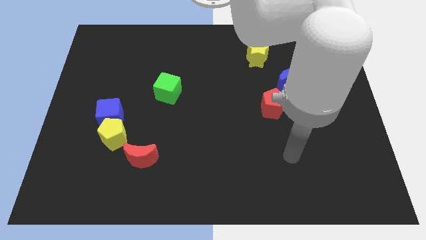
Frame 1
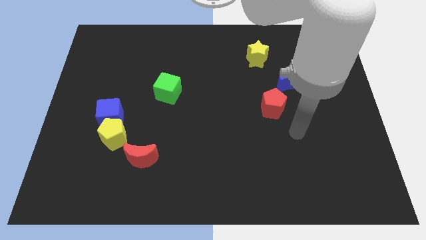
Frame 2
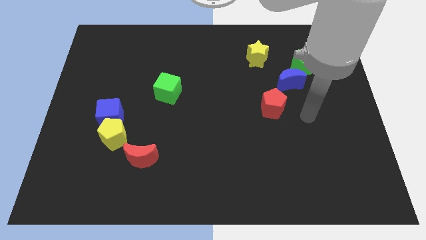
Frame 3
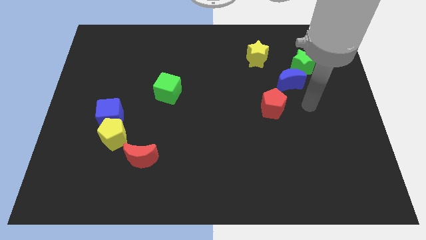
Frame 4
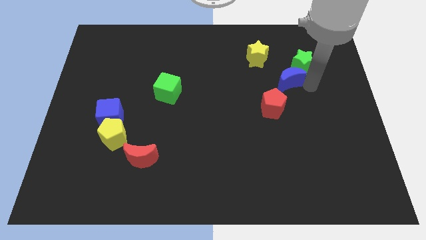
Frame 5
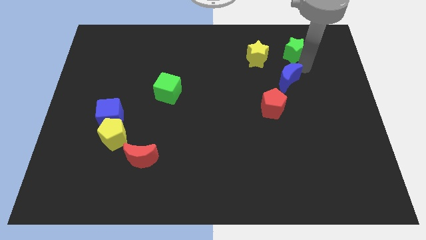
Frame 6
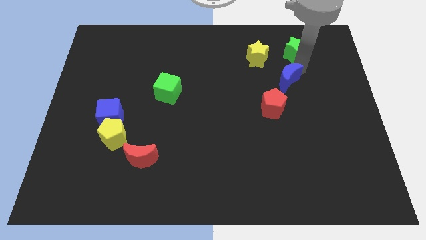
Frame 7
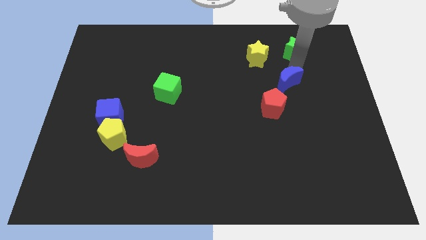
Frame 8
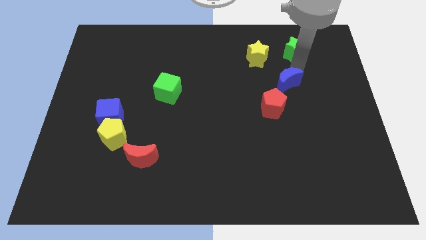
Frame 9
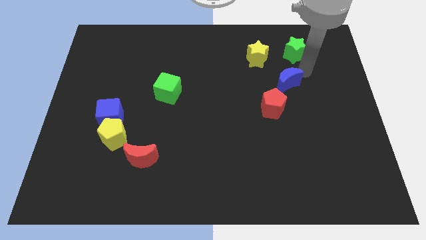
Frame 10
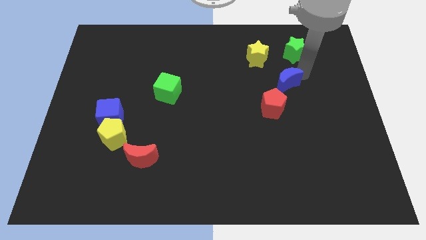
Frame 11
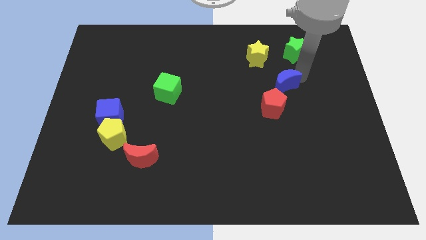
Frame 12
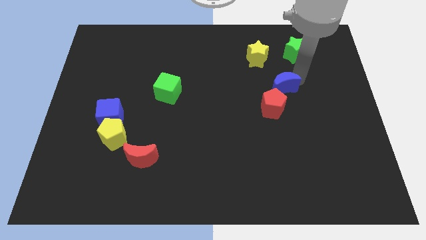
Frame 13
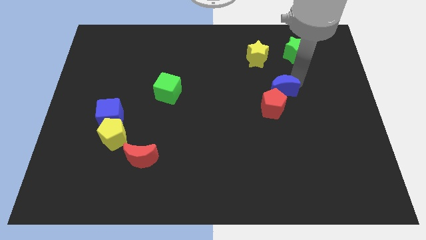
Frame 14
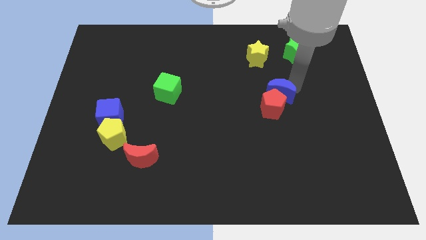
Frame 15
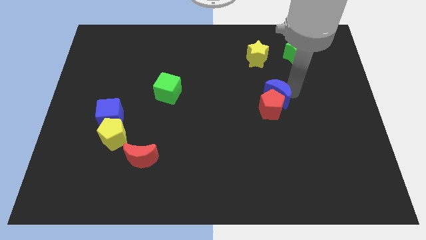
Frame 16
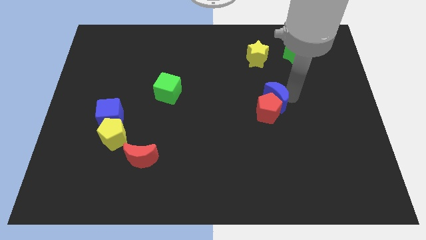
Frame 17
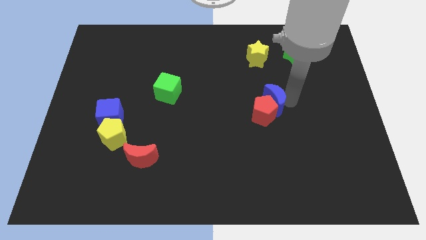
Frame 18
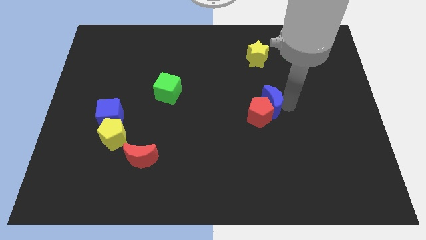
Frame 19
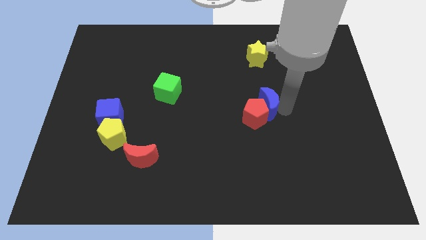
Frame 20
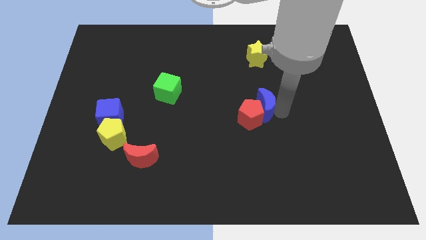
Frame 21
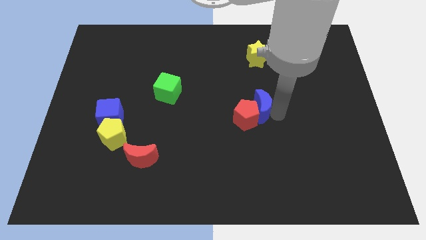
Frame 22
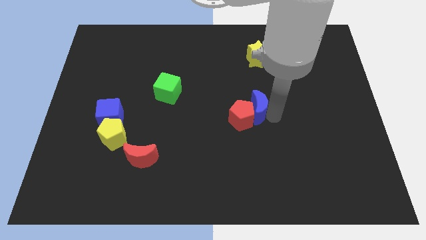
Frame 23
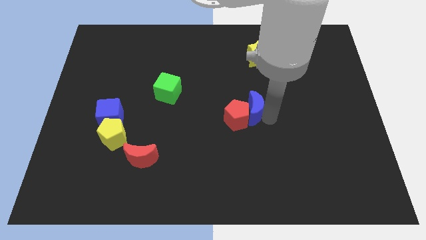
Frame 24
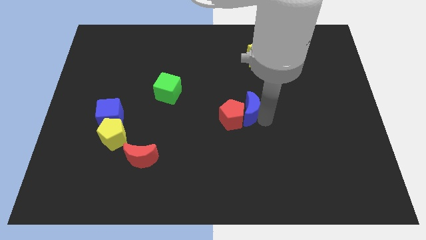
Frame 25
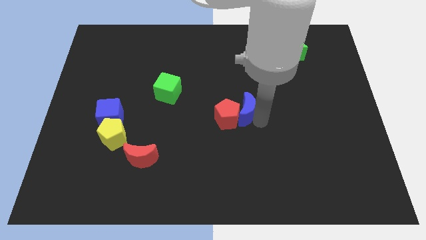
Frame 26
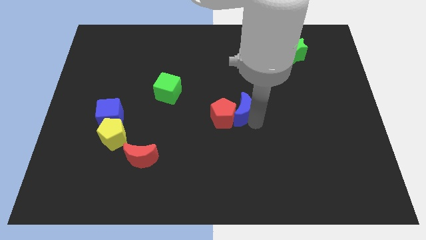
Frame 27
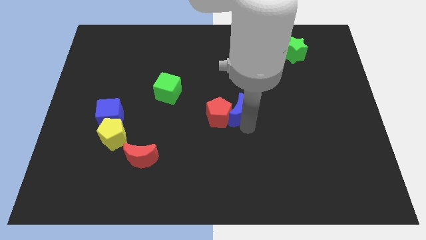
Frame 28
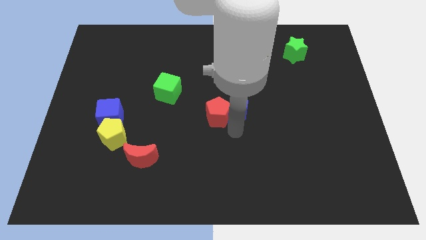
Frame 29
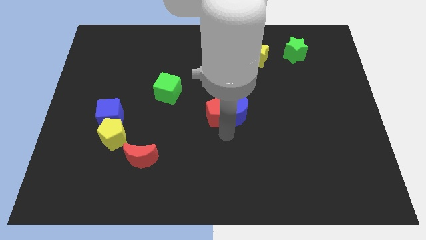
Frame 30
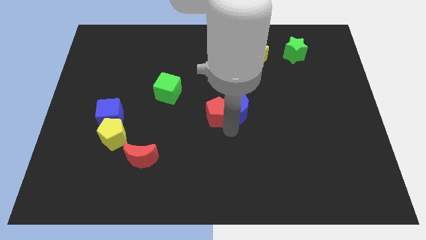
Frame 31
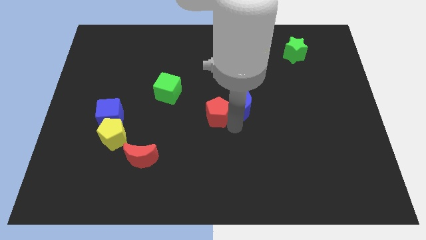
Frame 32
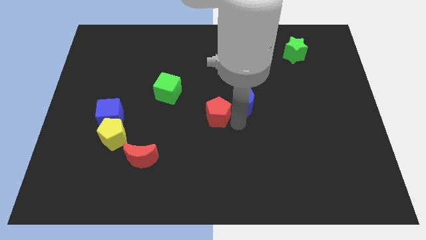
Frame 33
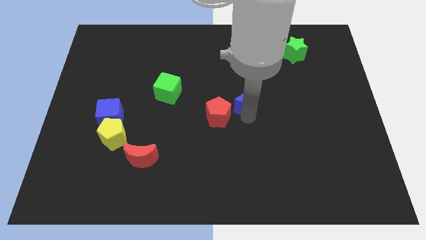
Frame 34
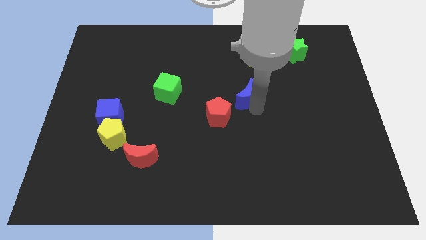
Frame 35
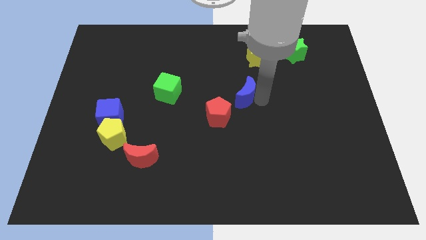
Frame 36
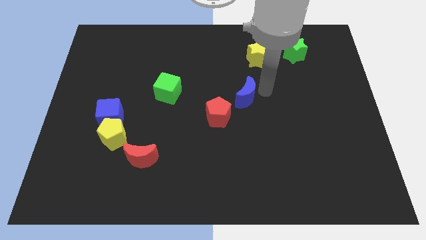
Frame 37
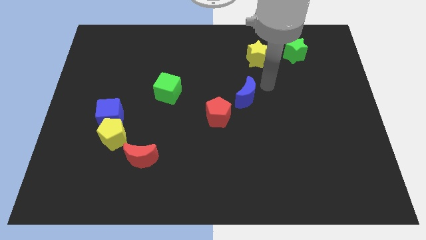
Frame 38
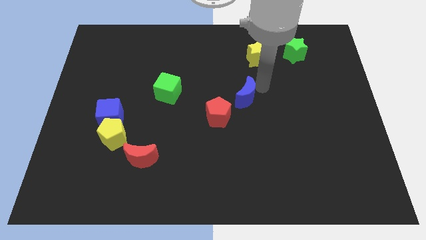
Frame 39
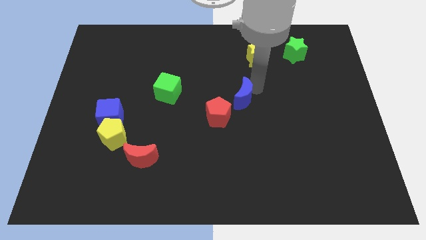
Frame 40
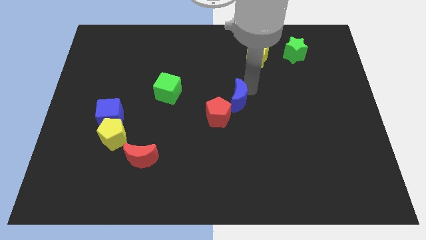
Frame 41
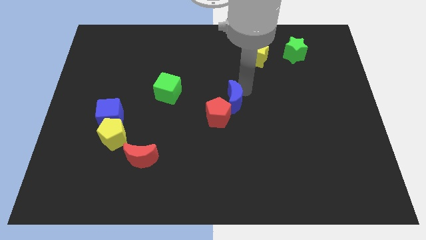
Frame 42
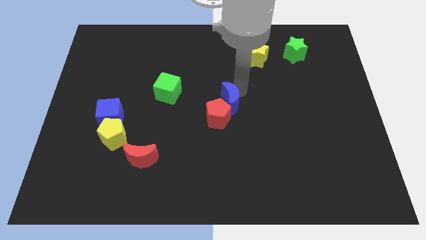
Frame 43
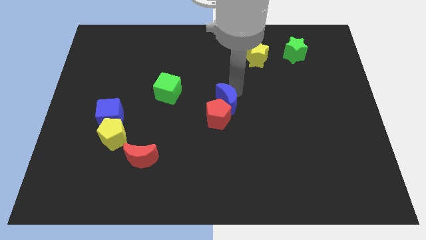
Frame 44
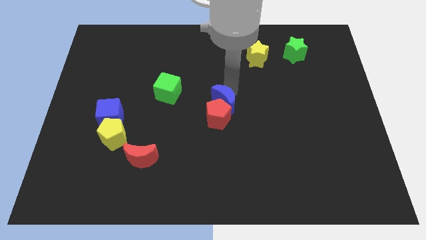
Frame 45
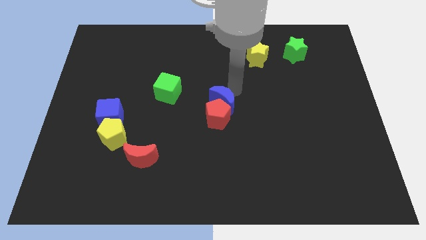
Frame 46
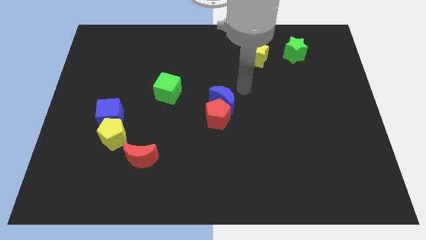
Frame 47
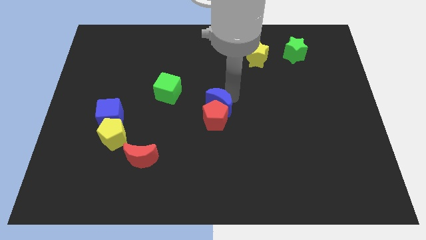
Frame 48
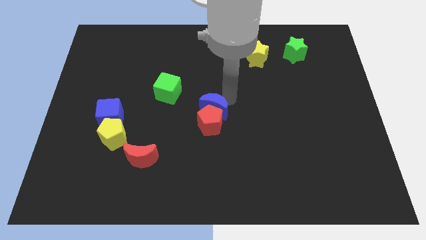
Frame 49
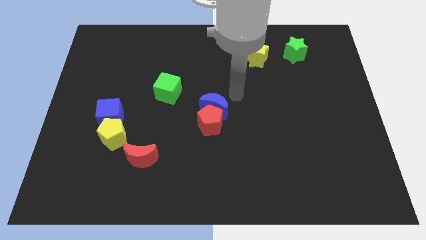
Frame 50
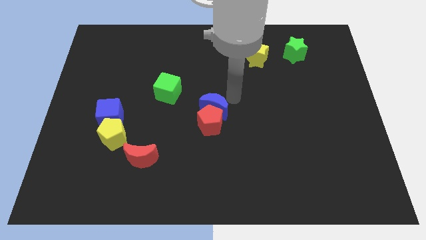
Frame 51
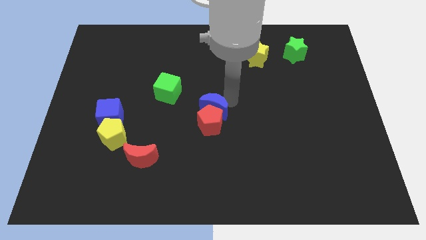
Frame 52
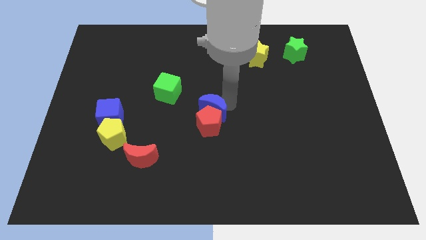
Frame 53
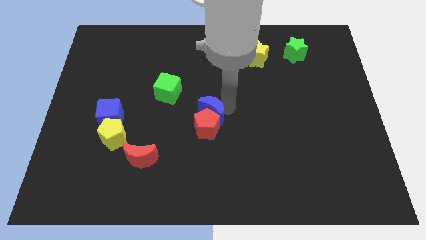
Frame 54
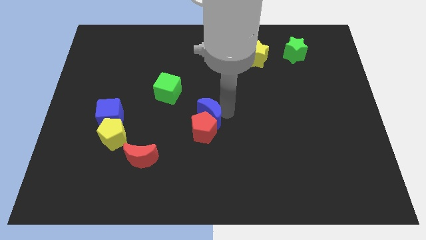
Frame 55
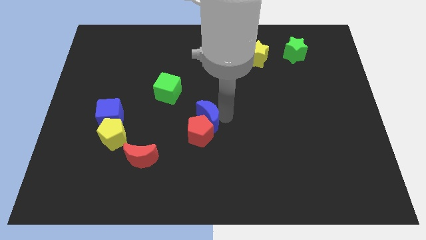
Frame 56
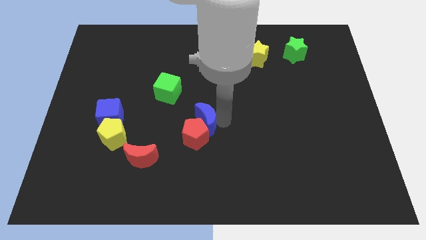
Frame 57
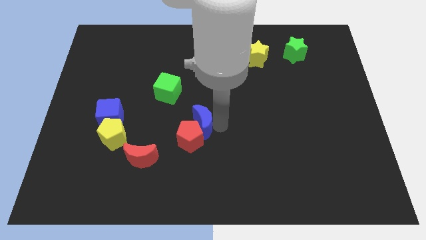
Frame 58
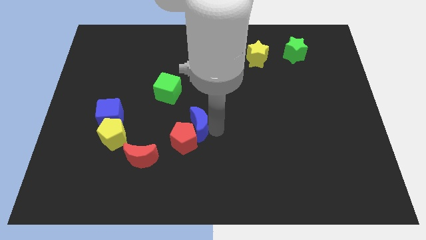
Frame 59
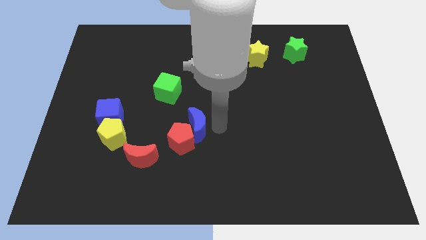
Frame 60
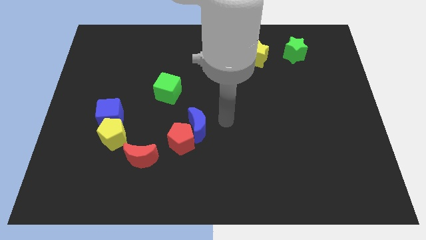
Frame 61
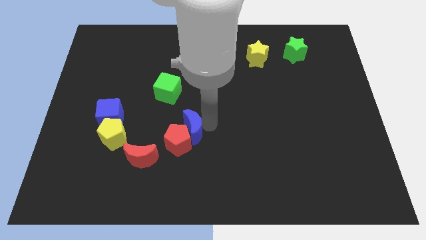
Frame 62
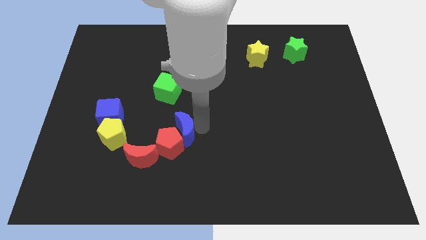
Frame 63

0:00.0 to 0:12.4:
move the blue moon to the right side of the yellow pentagon

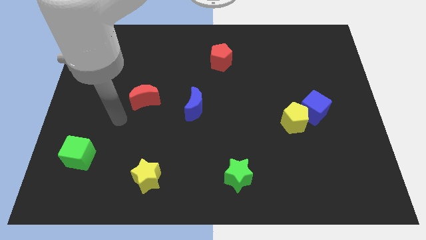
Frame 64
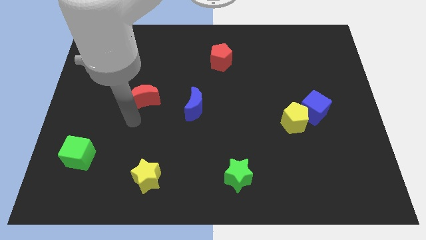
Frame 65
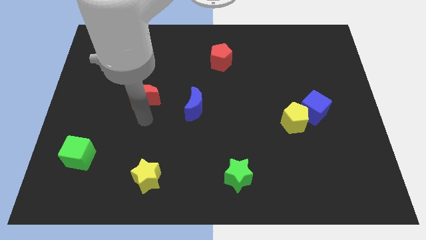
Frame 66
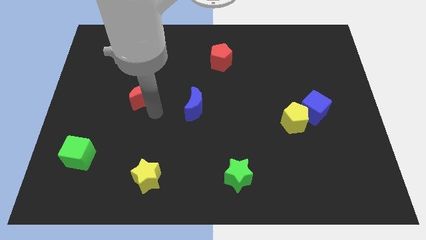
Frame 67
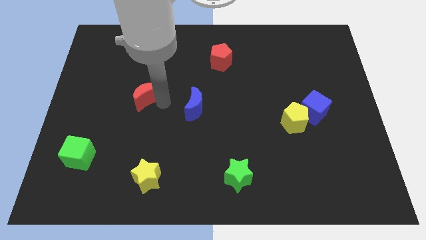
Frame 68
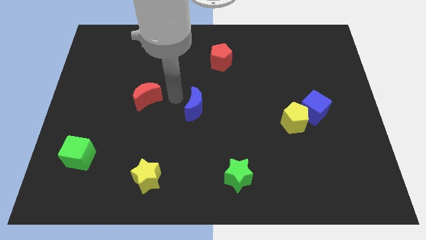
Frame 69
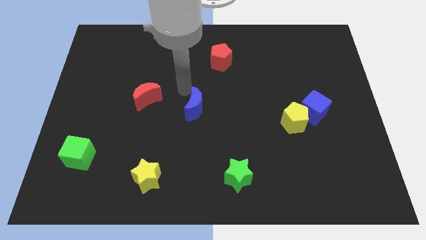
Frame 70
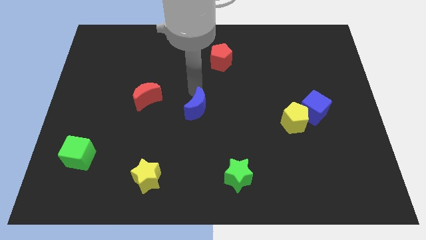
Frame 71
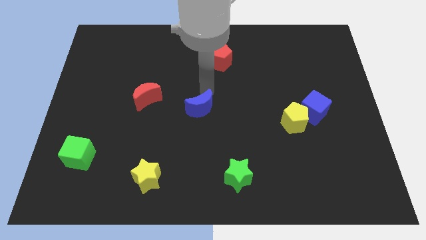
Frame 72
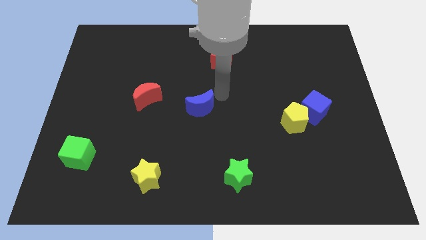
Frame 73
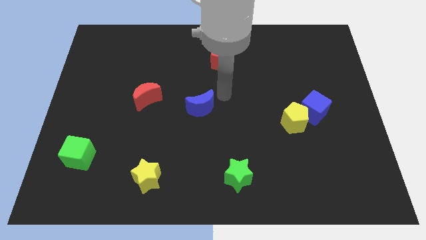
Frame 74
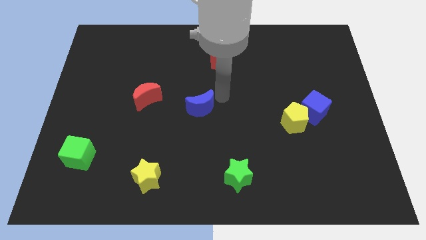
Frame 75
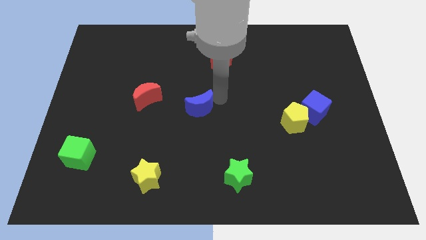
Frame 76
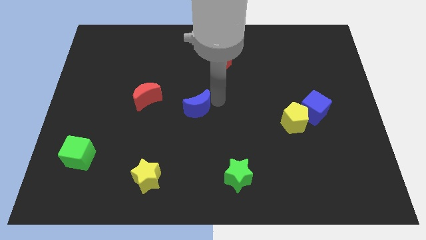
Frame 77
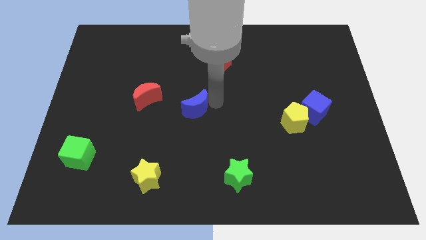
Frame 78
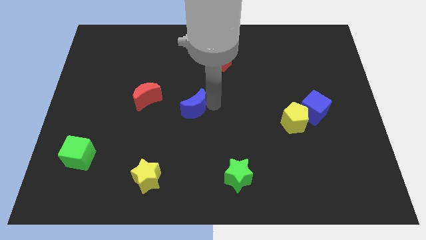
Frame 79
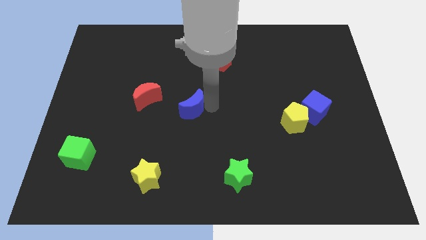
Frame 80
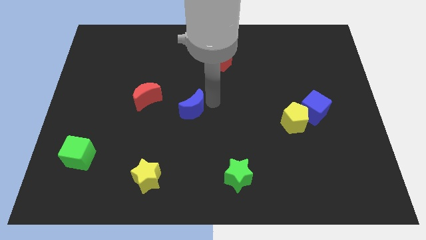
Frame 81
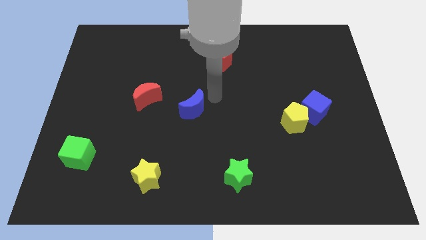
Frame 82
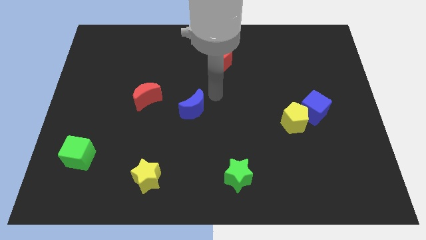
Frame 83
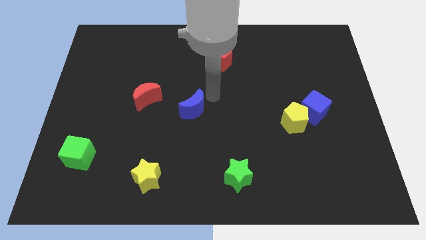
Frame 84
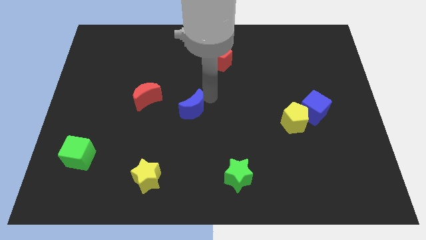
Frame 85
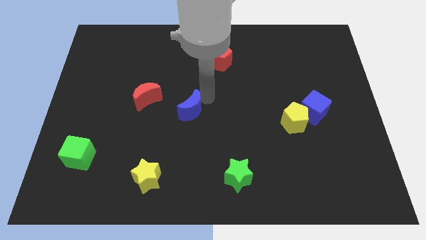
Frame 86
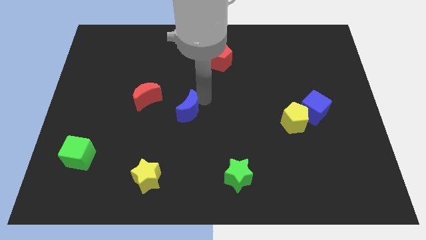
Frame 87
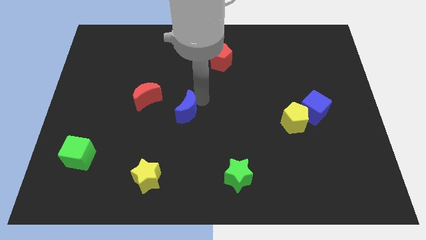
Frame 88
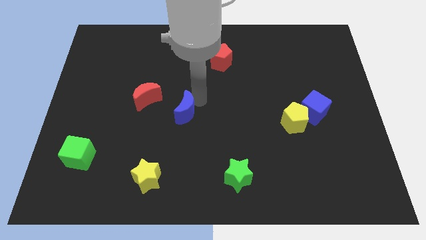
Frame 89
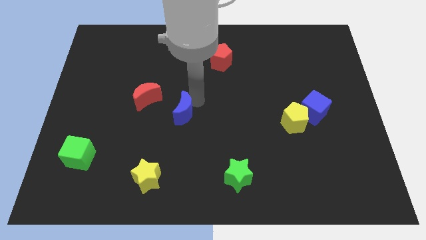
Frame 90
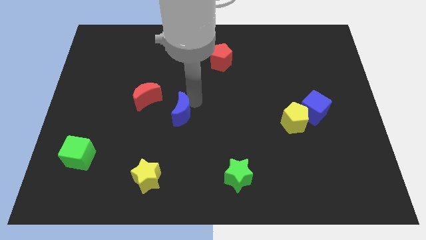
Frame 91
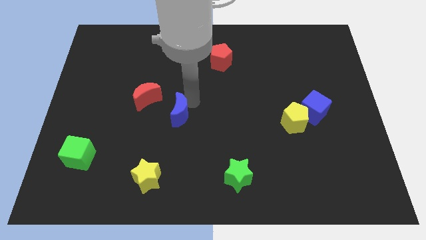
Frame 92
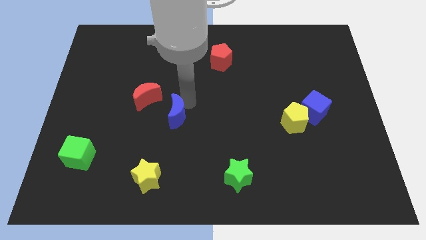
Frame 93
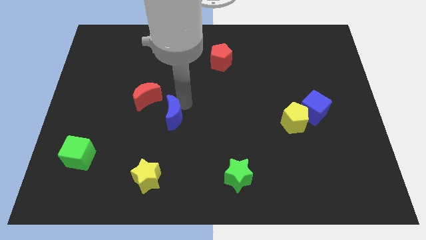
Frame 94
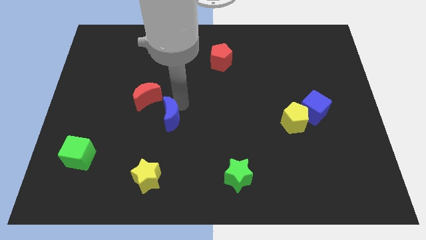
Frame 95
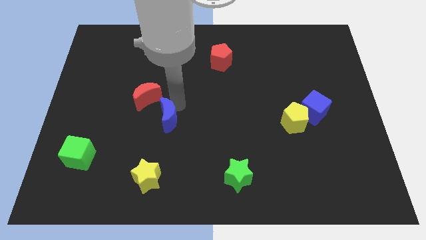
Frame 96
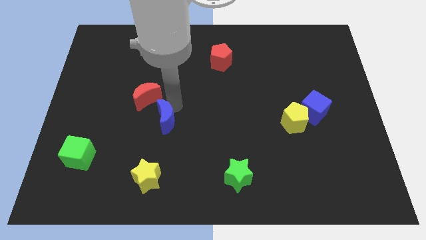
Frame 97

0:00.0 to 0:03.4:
slide the blue moon to the top of the yellow star
